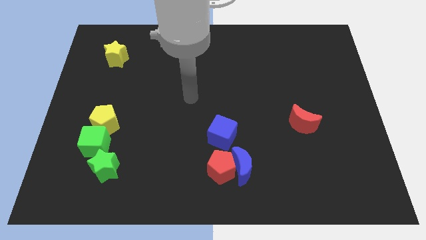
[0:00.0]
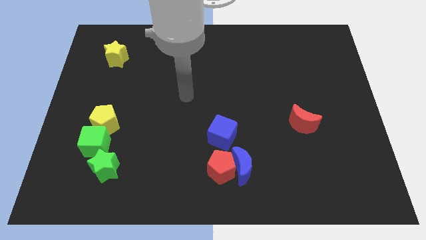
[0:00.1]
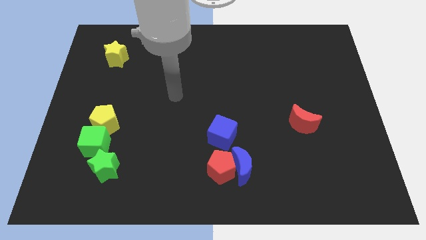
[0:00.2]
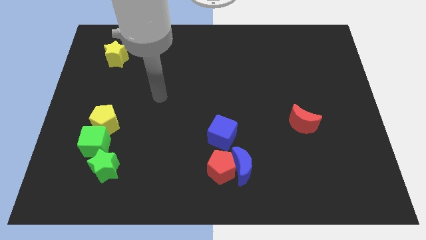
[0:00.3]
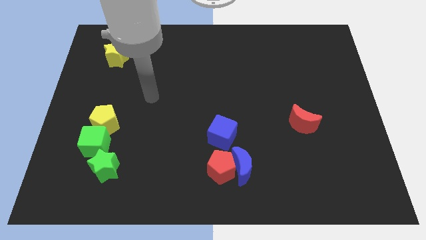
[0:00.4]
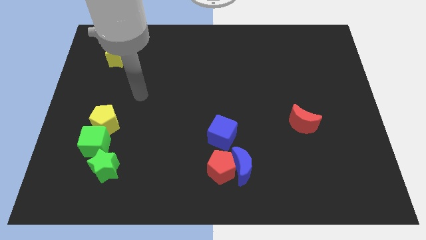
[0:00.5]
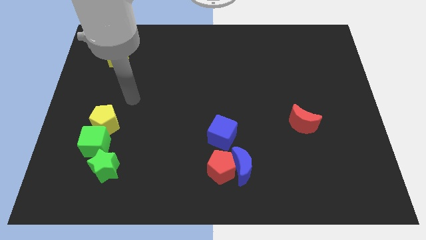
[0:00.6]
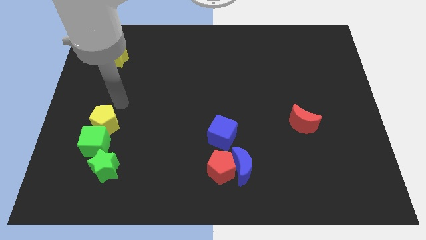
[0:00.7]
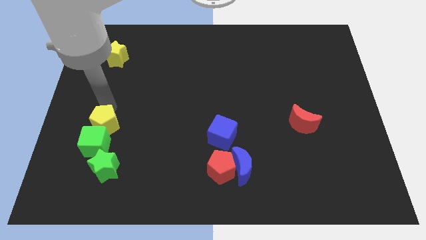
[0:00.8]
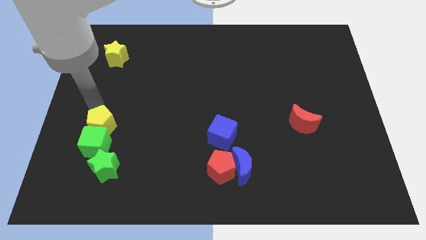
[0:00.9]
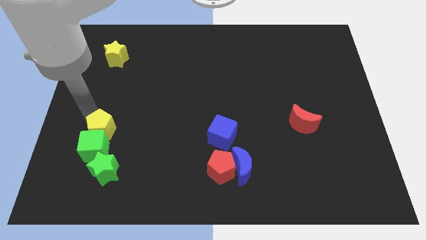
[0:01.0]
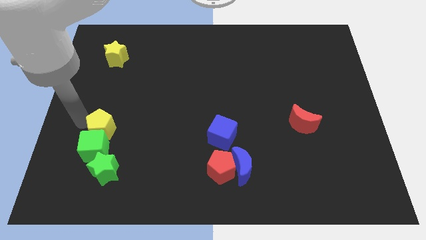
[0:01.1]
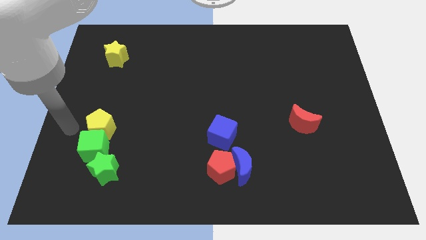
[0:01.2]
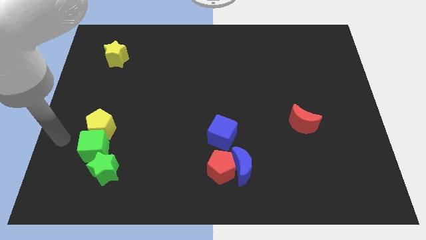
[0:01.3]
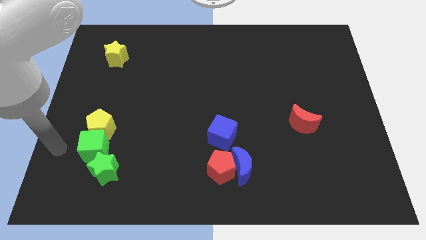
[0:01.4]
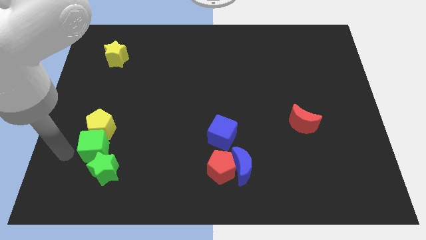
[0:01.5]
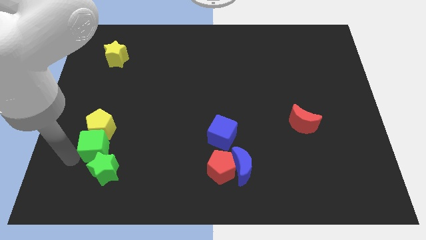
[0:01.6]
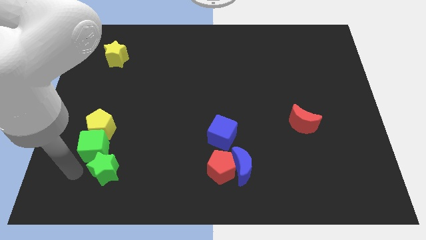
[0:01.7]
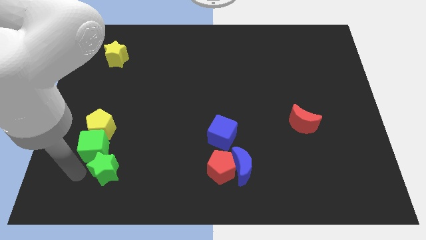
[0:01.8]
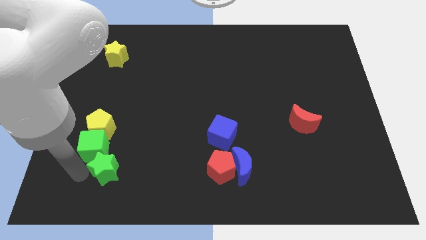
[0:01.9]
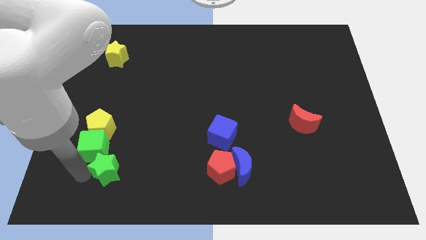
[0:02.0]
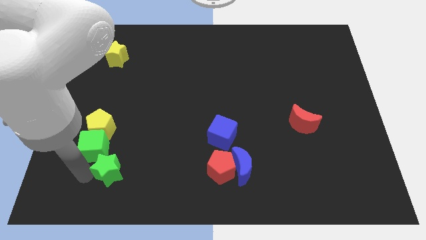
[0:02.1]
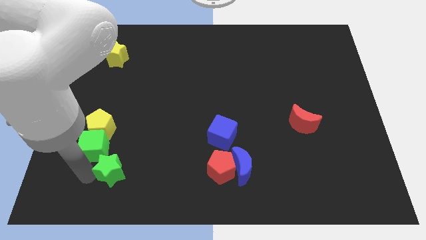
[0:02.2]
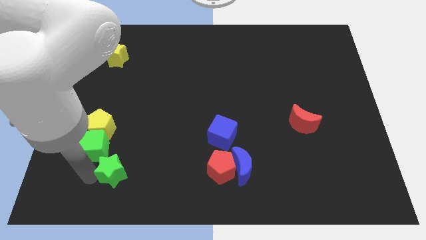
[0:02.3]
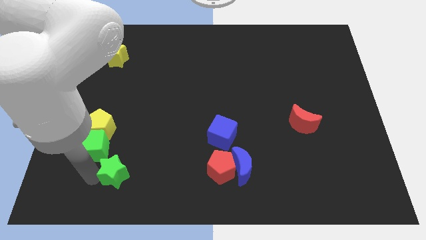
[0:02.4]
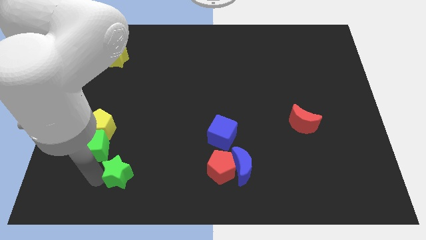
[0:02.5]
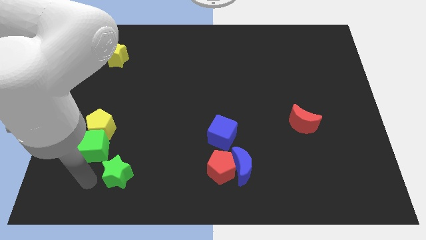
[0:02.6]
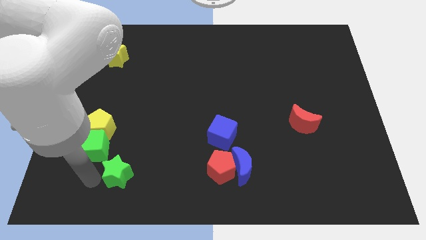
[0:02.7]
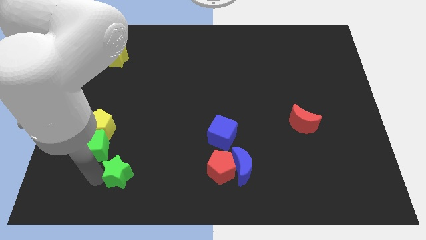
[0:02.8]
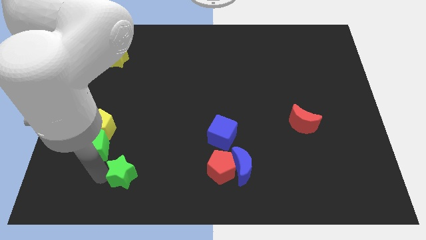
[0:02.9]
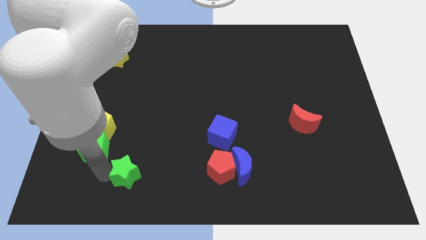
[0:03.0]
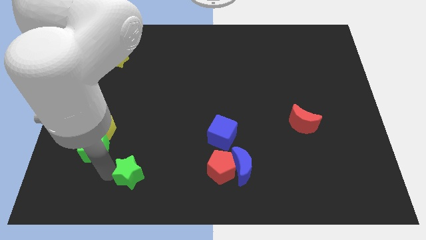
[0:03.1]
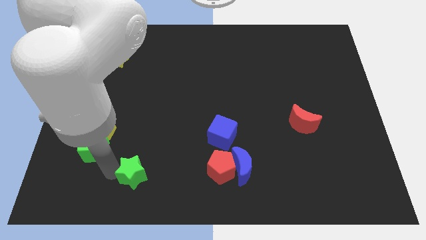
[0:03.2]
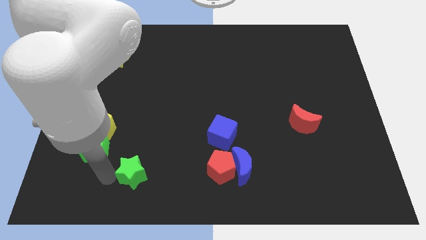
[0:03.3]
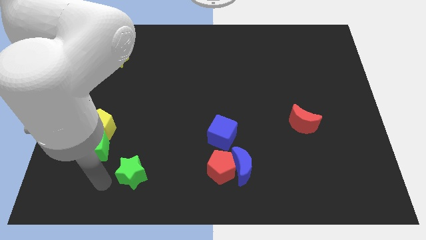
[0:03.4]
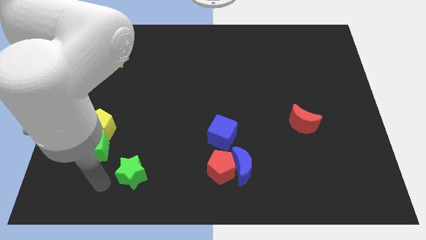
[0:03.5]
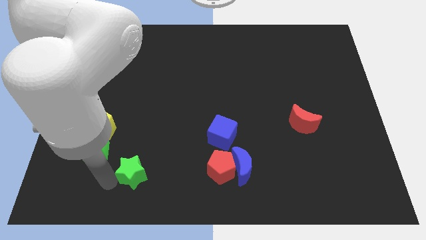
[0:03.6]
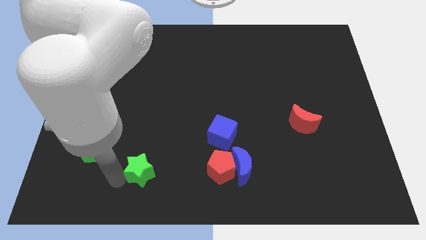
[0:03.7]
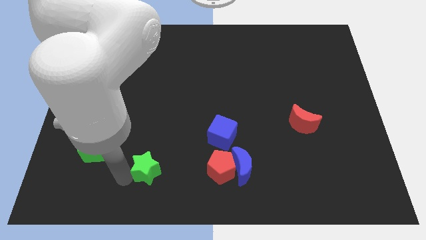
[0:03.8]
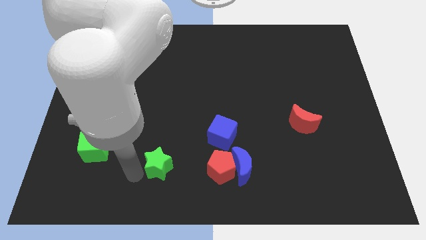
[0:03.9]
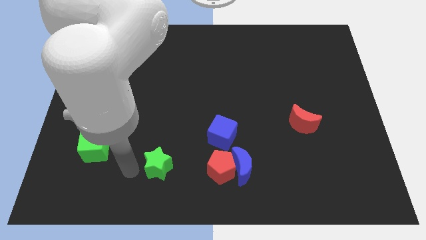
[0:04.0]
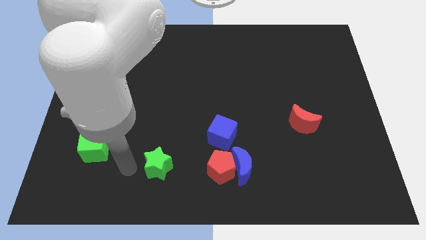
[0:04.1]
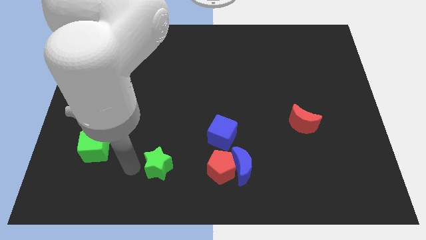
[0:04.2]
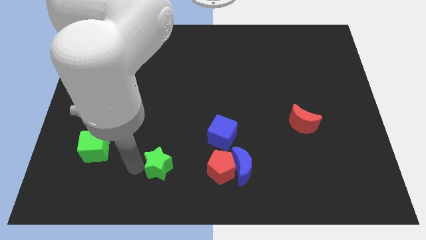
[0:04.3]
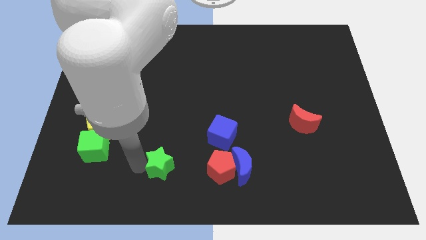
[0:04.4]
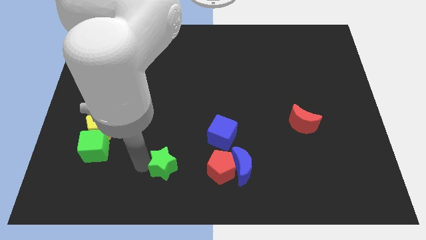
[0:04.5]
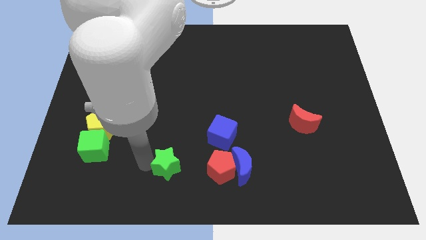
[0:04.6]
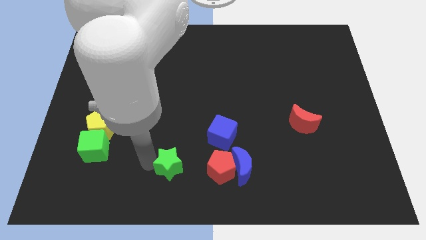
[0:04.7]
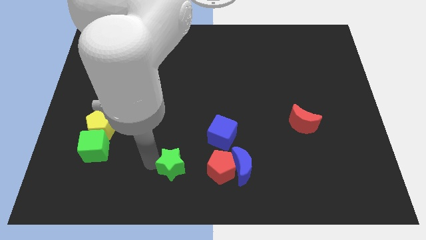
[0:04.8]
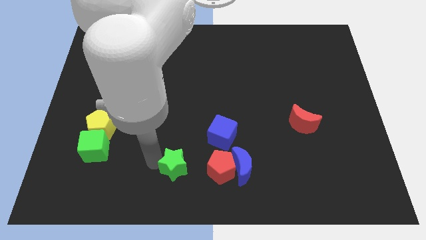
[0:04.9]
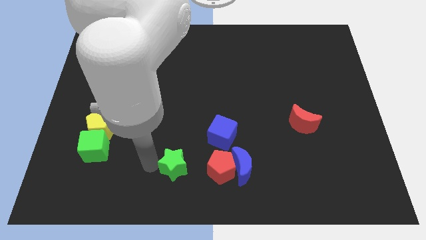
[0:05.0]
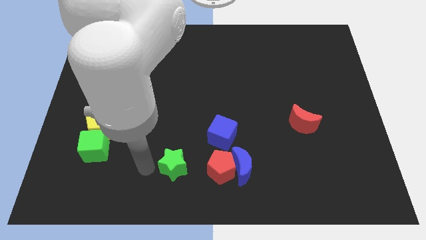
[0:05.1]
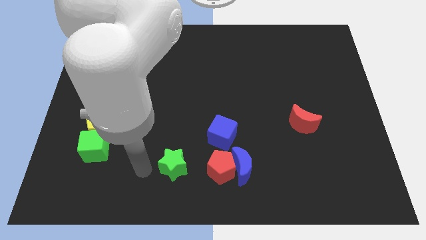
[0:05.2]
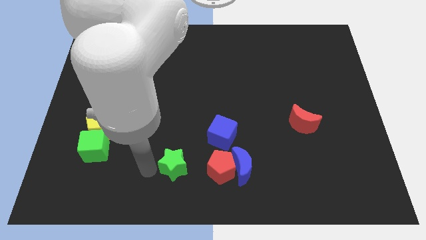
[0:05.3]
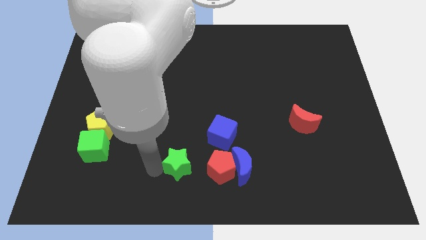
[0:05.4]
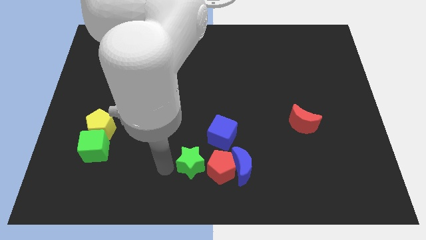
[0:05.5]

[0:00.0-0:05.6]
move the green star towards the red pentagon
